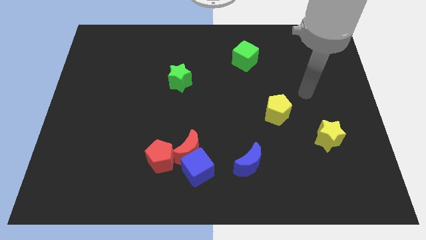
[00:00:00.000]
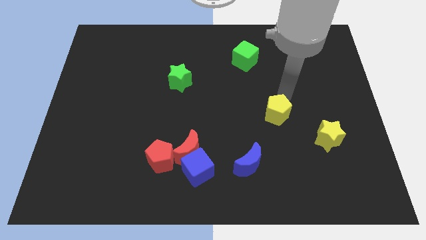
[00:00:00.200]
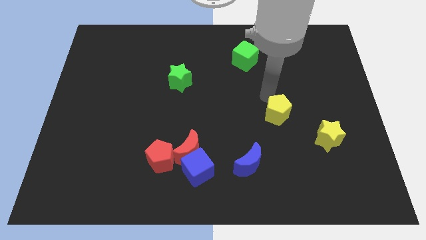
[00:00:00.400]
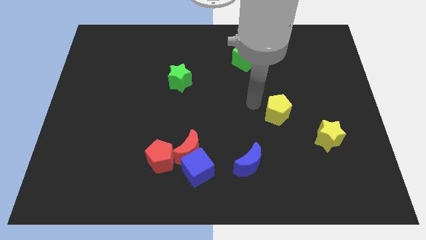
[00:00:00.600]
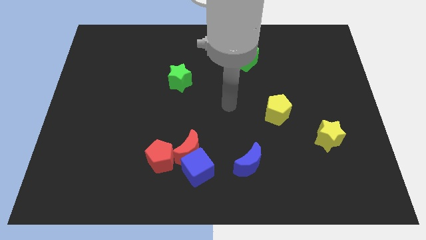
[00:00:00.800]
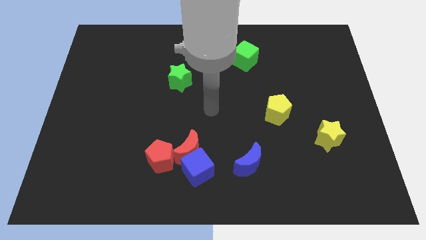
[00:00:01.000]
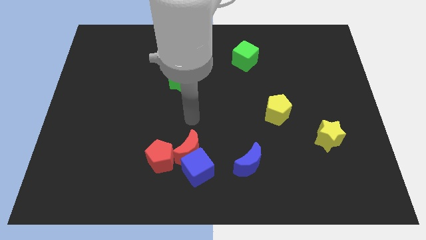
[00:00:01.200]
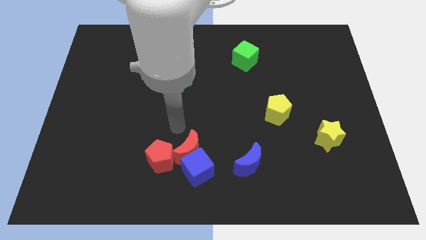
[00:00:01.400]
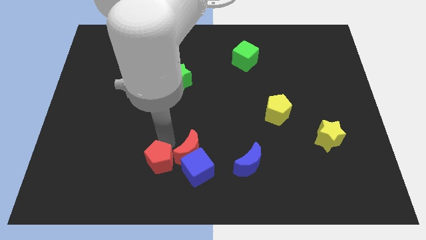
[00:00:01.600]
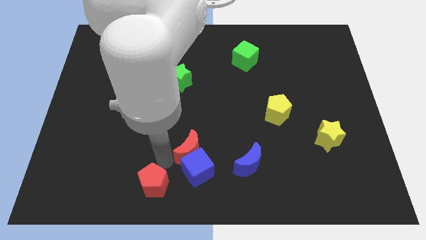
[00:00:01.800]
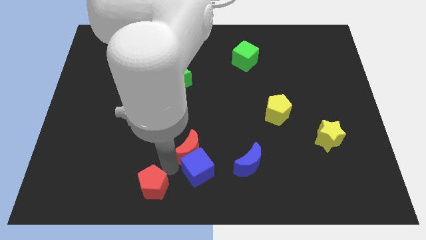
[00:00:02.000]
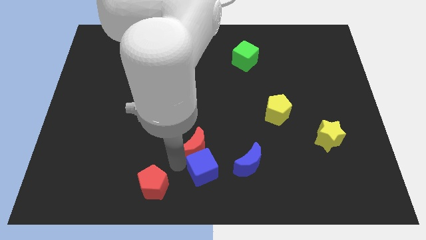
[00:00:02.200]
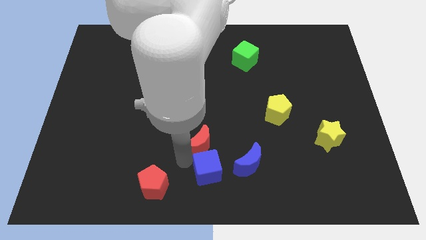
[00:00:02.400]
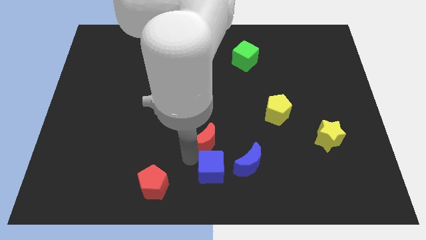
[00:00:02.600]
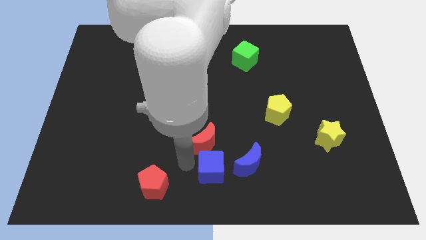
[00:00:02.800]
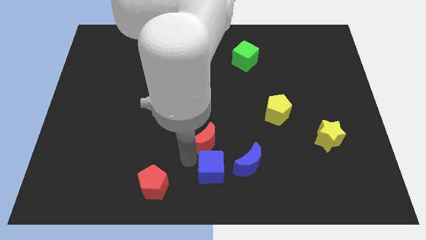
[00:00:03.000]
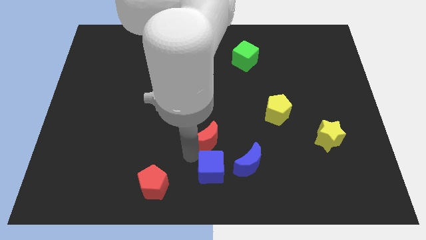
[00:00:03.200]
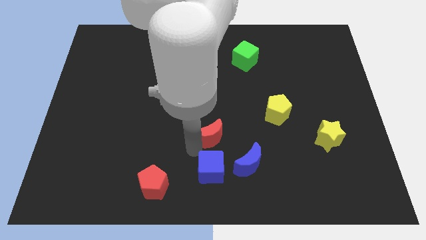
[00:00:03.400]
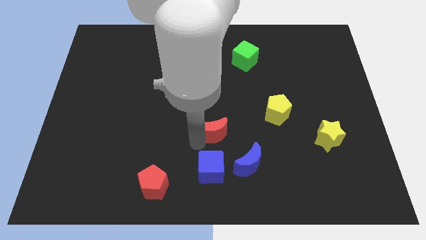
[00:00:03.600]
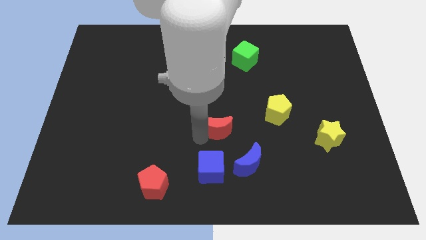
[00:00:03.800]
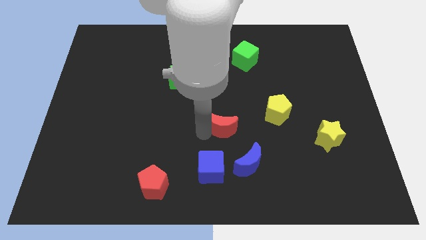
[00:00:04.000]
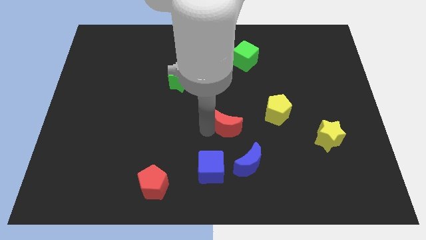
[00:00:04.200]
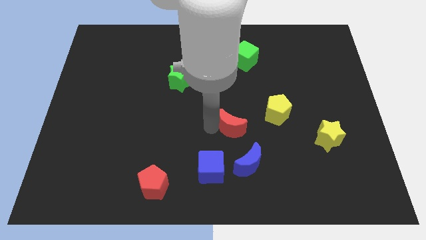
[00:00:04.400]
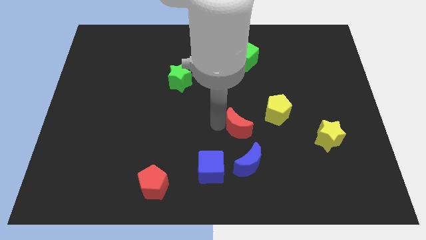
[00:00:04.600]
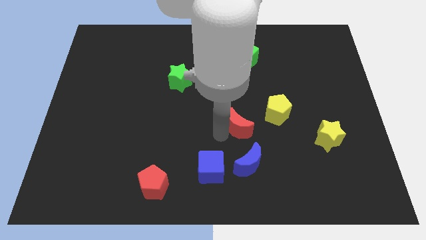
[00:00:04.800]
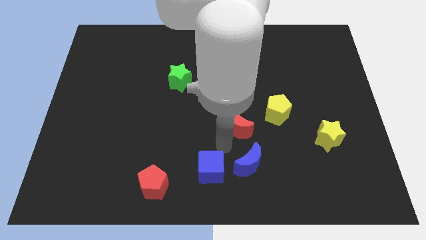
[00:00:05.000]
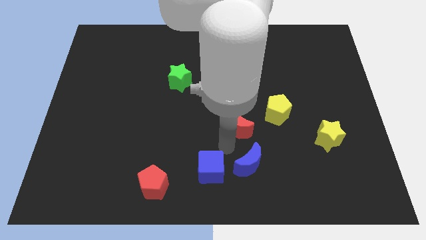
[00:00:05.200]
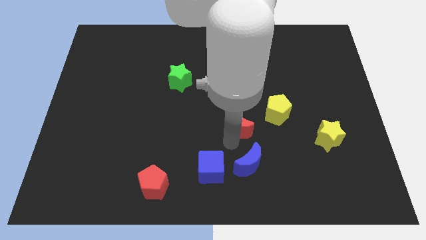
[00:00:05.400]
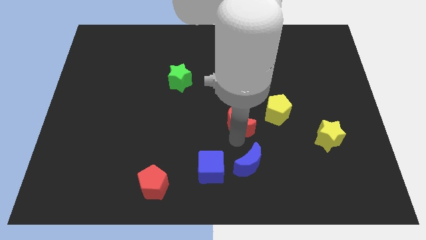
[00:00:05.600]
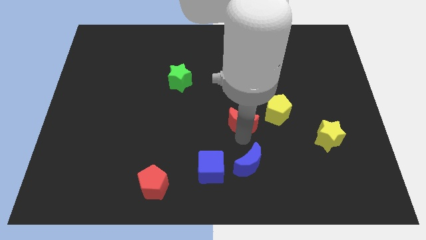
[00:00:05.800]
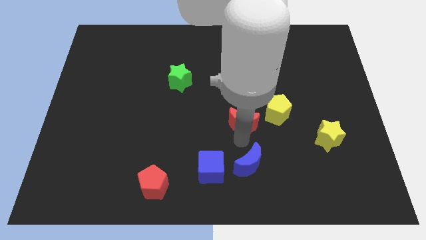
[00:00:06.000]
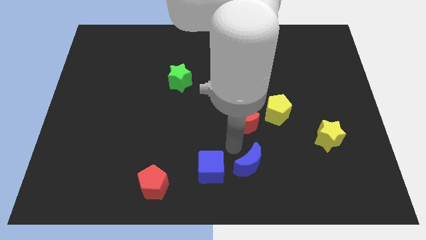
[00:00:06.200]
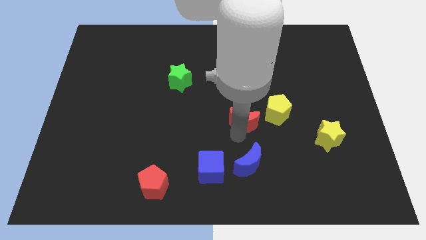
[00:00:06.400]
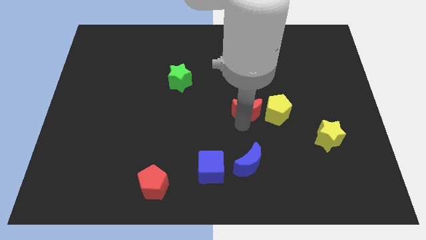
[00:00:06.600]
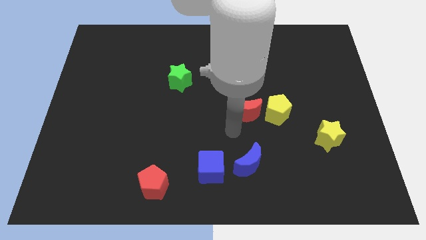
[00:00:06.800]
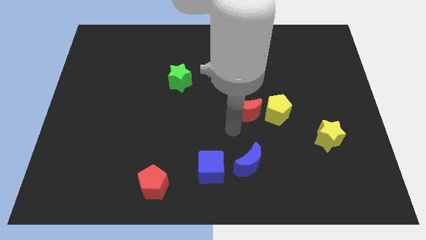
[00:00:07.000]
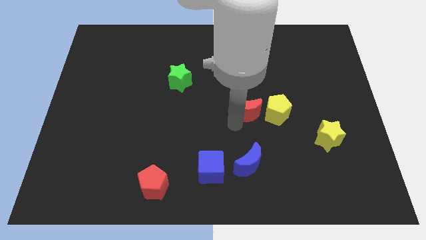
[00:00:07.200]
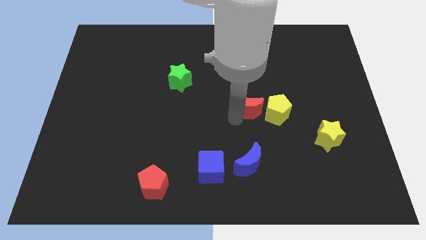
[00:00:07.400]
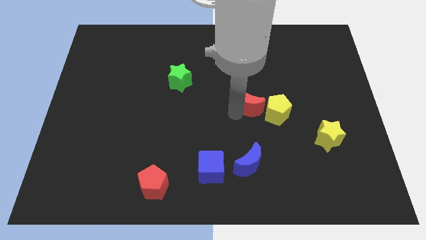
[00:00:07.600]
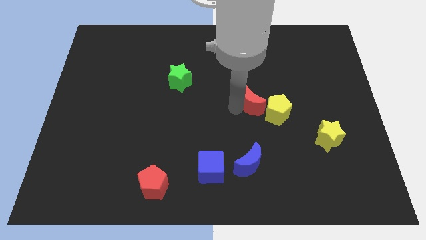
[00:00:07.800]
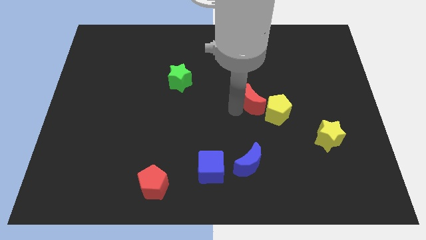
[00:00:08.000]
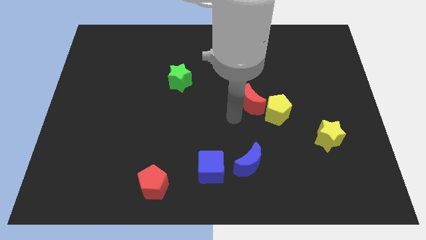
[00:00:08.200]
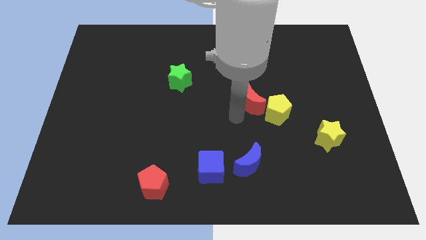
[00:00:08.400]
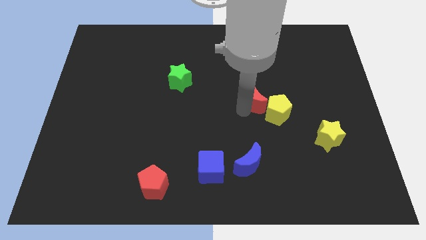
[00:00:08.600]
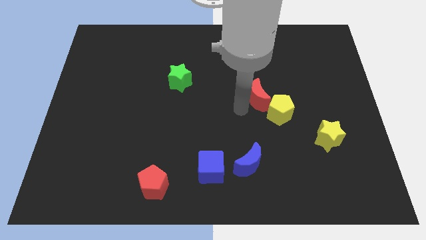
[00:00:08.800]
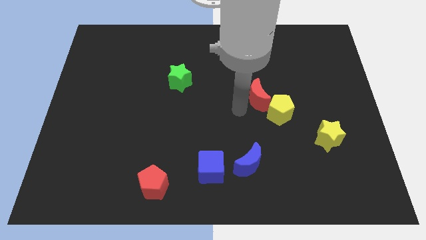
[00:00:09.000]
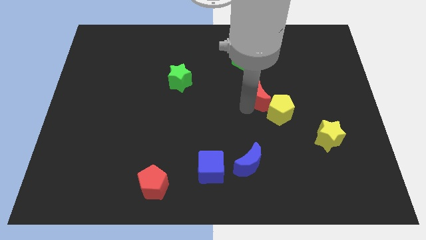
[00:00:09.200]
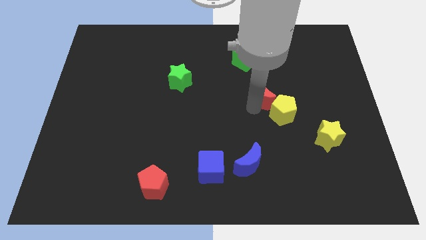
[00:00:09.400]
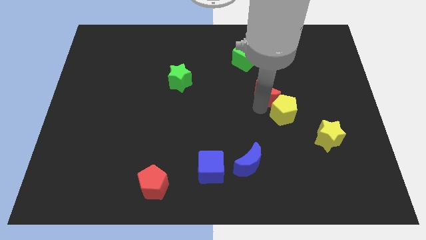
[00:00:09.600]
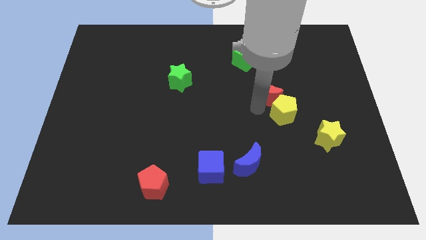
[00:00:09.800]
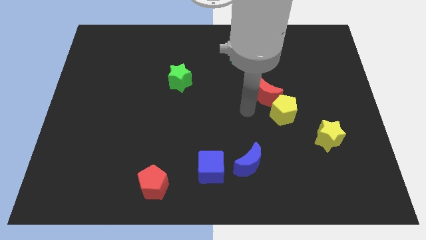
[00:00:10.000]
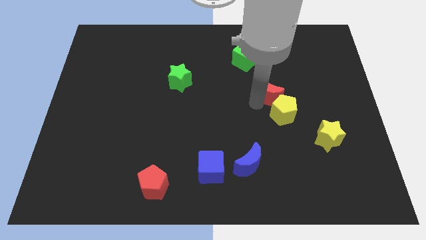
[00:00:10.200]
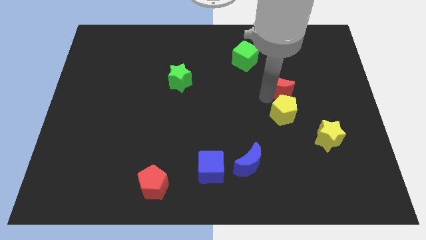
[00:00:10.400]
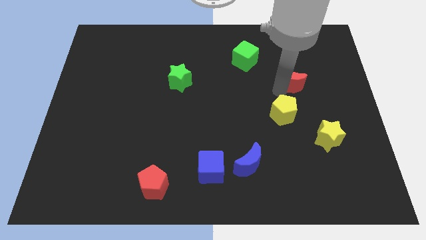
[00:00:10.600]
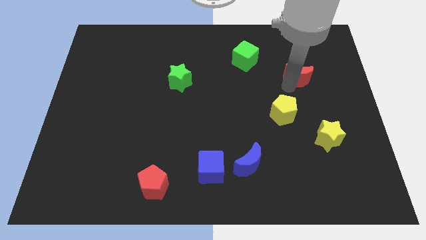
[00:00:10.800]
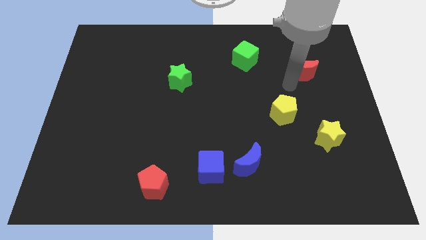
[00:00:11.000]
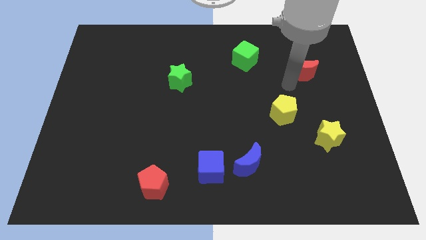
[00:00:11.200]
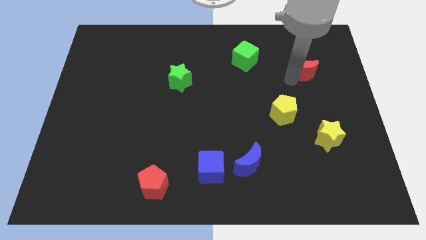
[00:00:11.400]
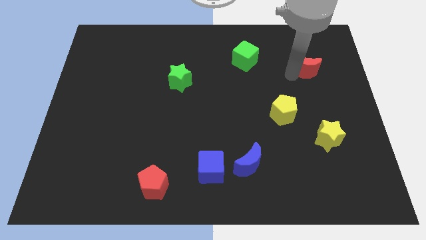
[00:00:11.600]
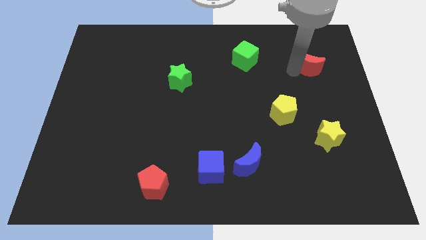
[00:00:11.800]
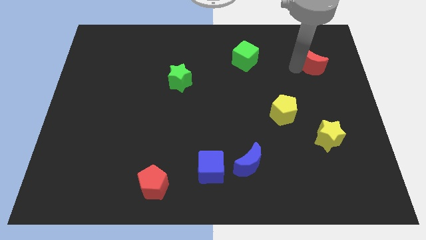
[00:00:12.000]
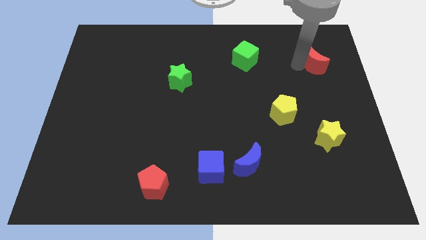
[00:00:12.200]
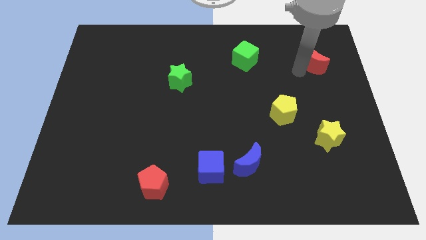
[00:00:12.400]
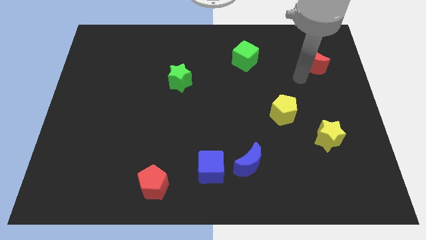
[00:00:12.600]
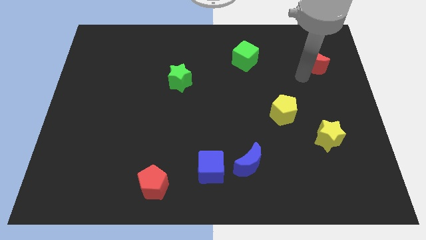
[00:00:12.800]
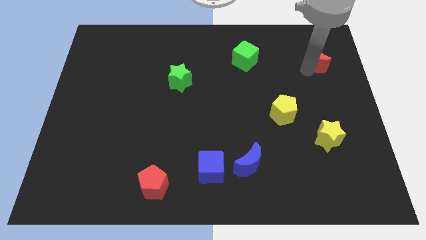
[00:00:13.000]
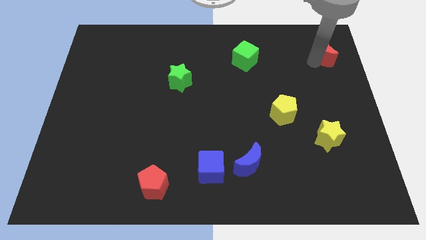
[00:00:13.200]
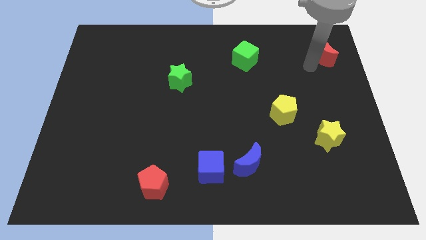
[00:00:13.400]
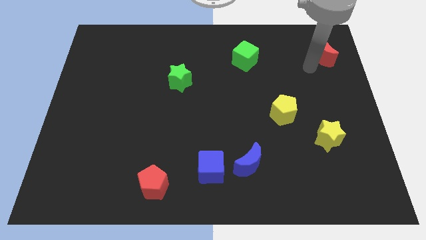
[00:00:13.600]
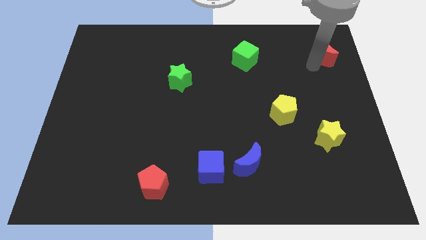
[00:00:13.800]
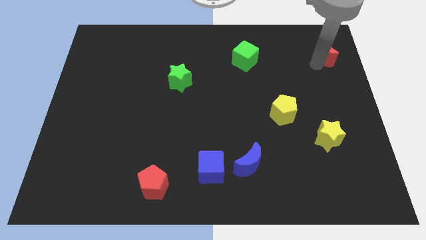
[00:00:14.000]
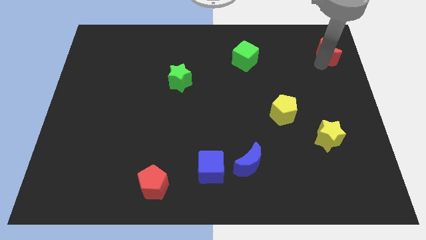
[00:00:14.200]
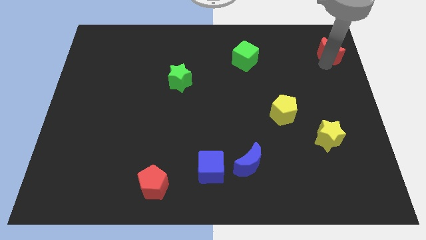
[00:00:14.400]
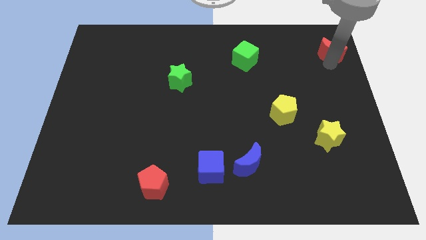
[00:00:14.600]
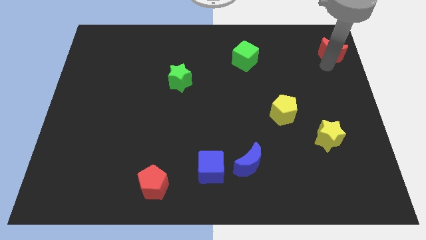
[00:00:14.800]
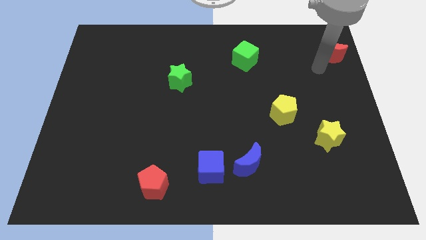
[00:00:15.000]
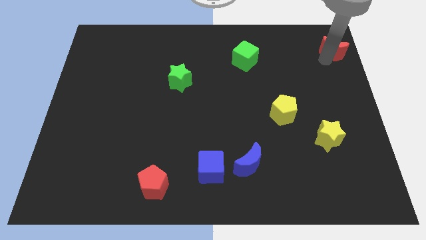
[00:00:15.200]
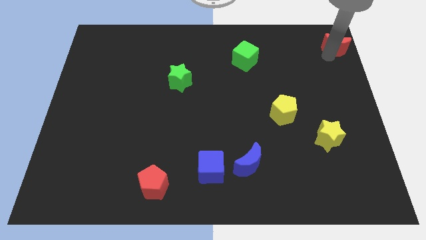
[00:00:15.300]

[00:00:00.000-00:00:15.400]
slide the red moon to the top right corner
